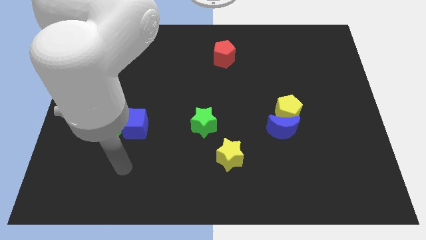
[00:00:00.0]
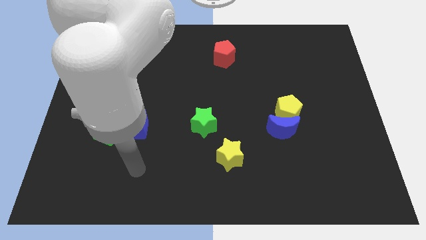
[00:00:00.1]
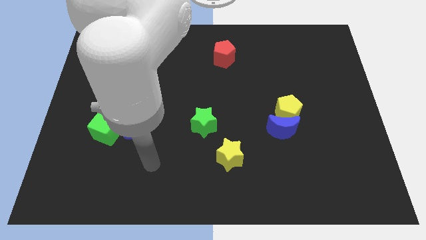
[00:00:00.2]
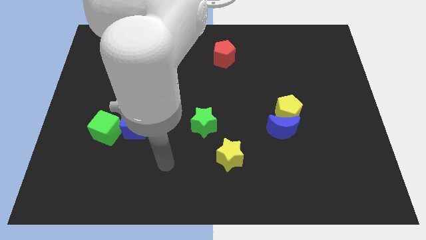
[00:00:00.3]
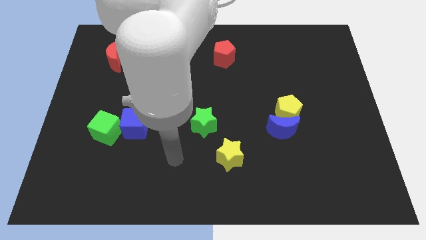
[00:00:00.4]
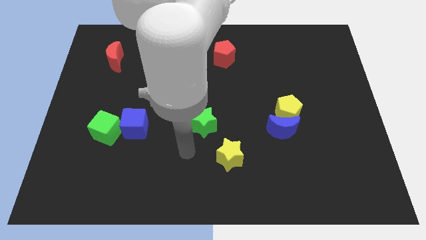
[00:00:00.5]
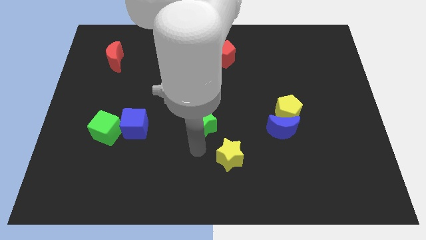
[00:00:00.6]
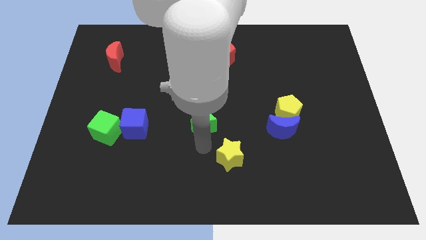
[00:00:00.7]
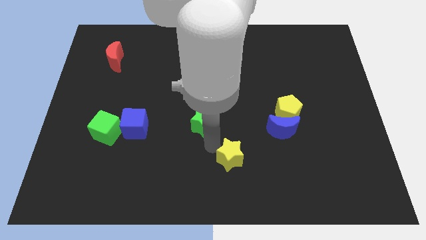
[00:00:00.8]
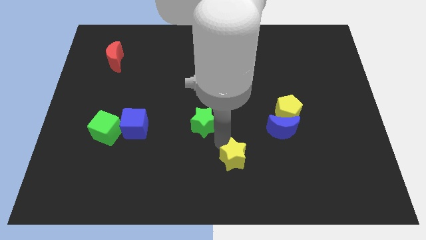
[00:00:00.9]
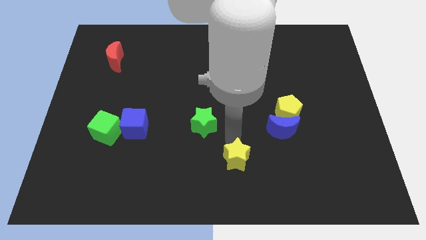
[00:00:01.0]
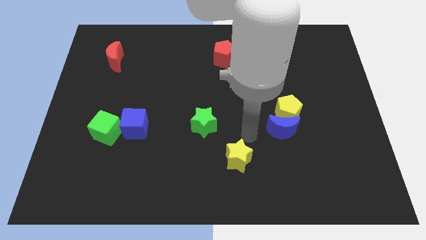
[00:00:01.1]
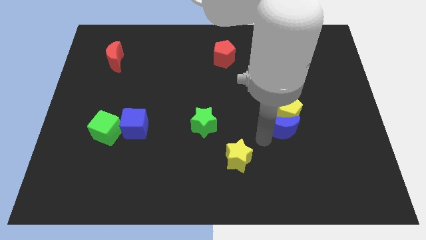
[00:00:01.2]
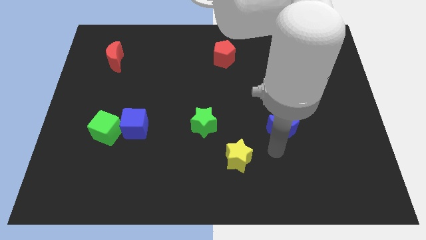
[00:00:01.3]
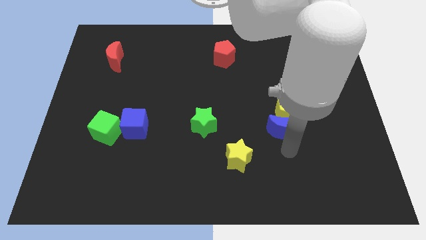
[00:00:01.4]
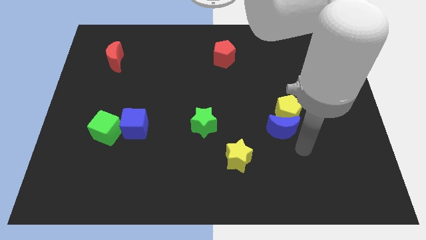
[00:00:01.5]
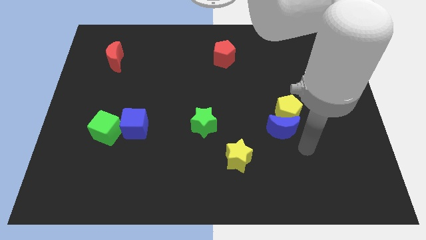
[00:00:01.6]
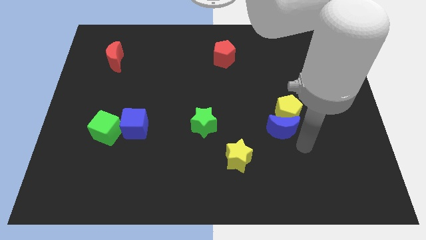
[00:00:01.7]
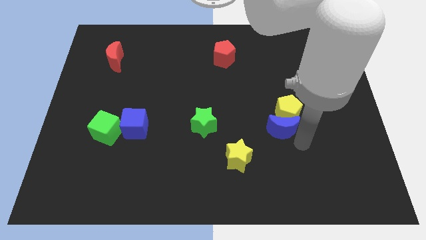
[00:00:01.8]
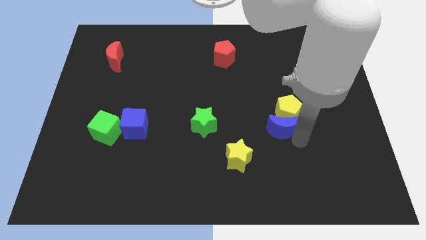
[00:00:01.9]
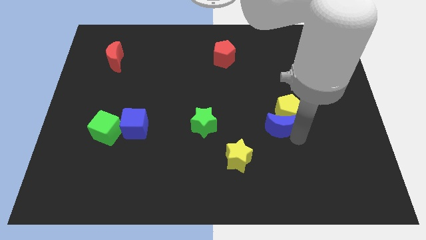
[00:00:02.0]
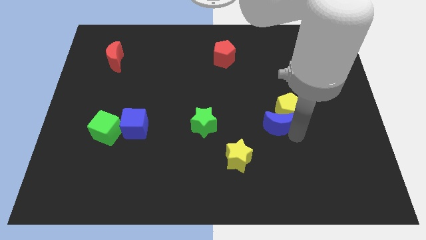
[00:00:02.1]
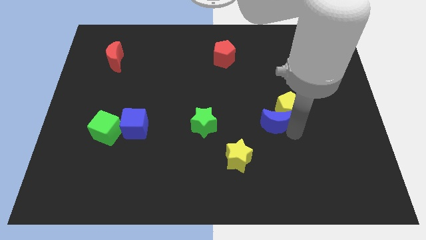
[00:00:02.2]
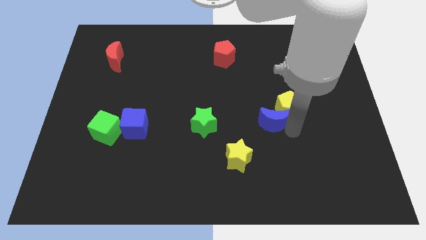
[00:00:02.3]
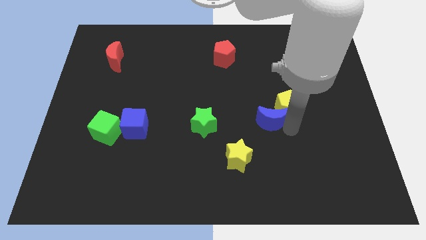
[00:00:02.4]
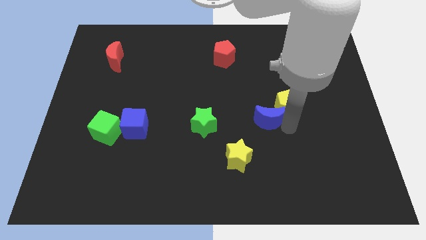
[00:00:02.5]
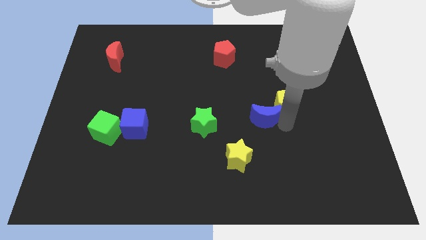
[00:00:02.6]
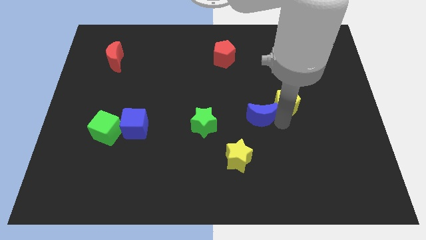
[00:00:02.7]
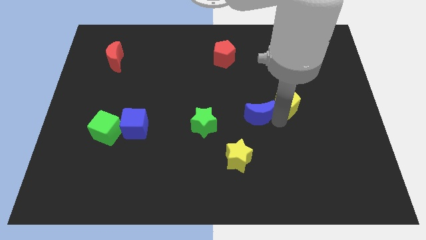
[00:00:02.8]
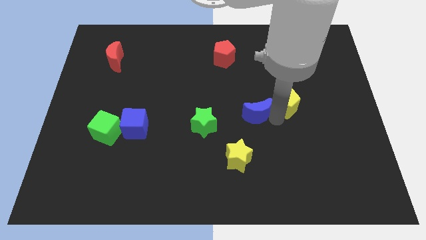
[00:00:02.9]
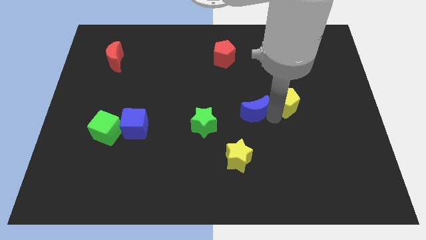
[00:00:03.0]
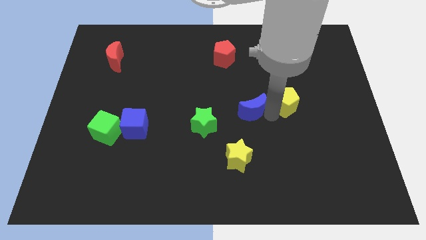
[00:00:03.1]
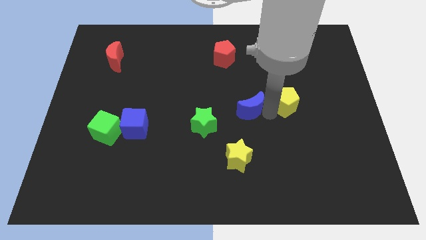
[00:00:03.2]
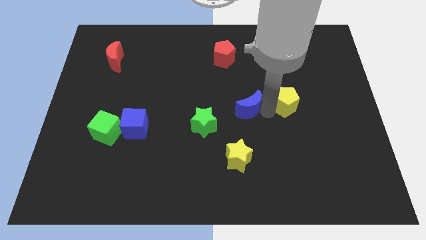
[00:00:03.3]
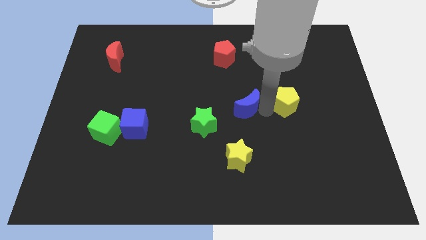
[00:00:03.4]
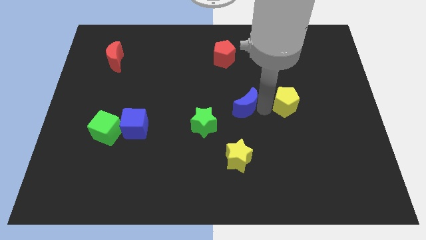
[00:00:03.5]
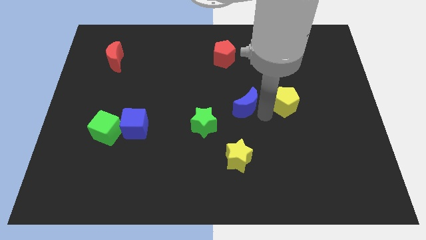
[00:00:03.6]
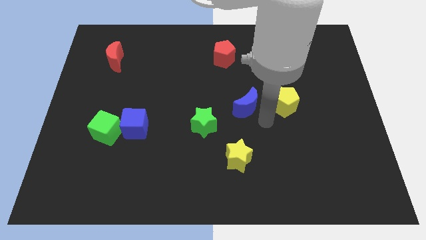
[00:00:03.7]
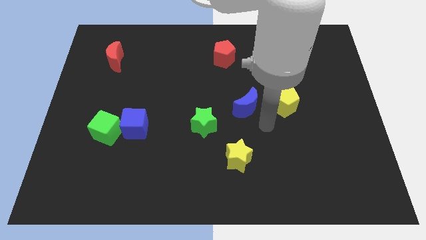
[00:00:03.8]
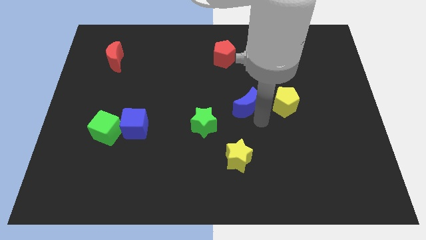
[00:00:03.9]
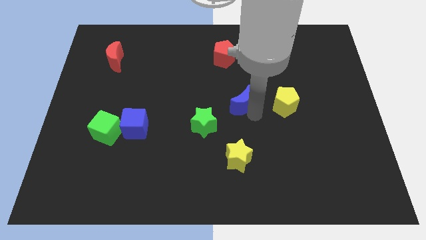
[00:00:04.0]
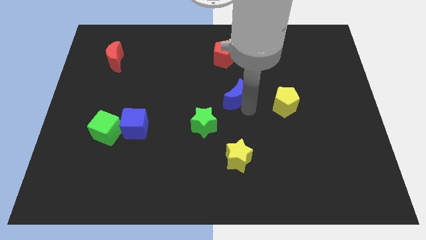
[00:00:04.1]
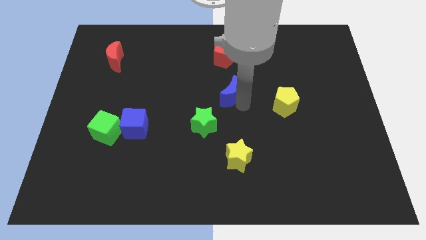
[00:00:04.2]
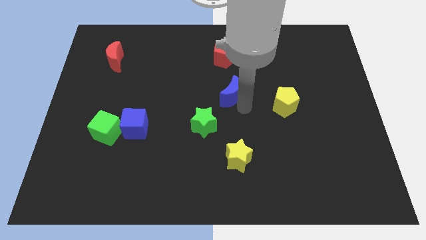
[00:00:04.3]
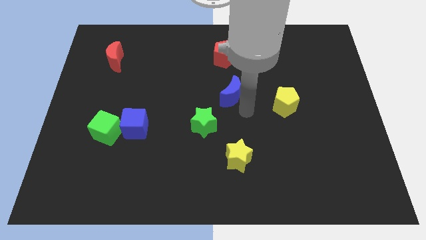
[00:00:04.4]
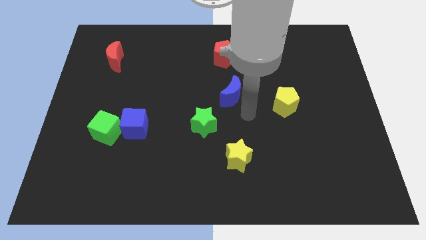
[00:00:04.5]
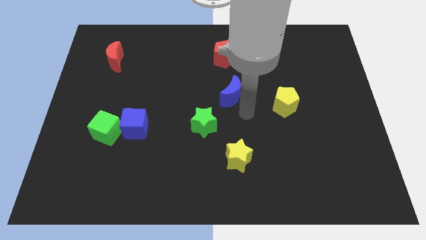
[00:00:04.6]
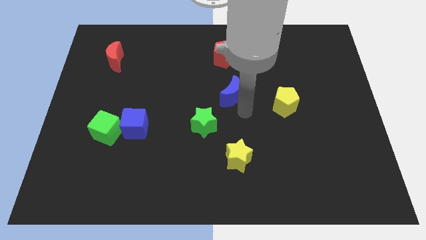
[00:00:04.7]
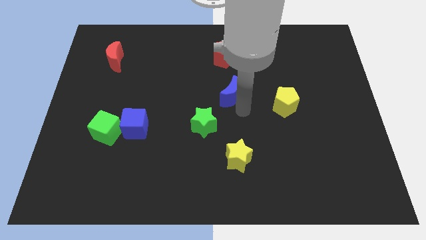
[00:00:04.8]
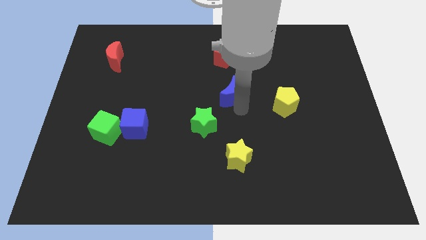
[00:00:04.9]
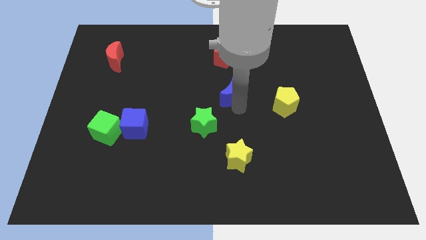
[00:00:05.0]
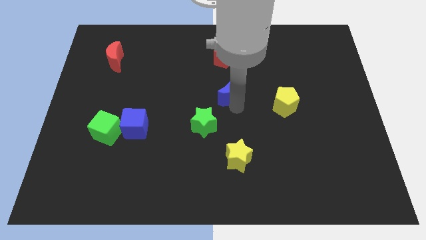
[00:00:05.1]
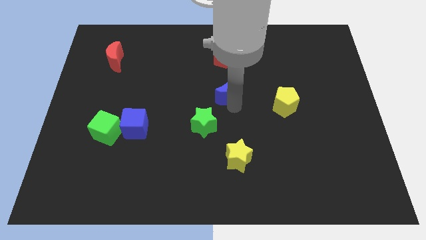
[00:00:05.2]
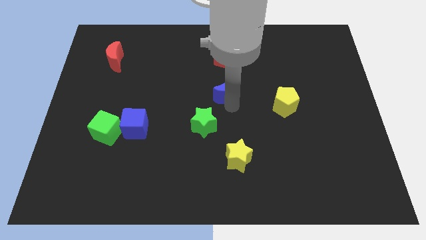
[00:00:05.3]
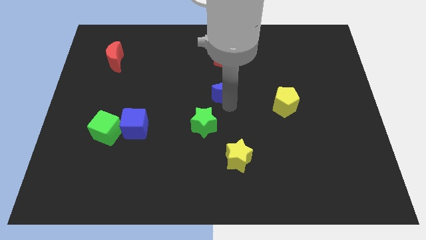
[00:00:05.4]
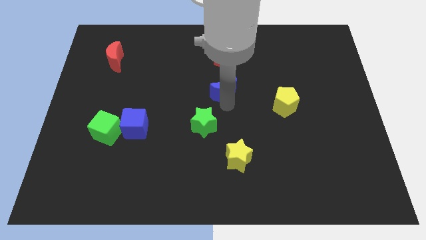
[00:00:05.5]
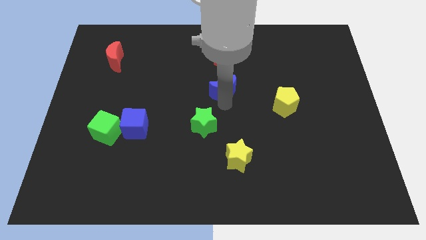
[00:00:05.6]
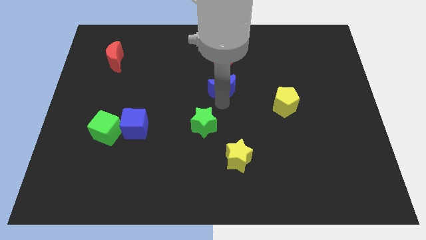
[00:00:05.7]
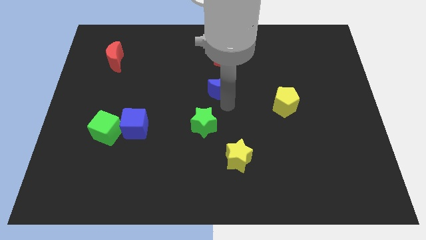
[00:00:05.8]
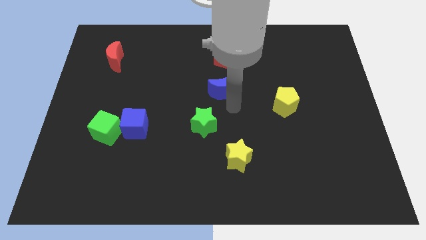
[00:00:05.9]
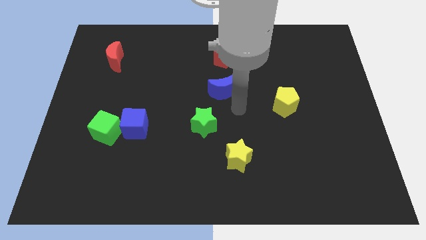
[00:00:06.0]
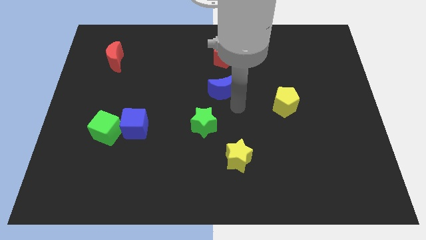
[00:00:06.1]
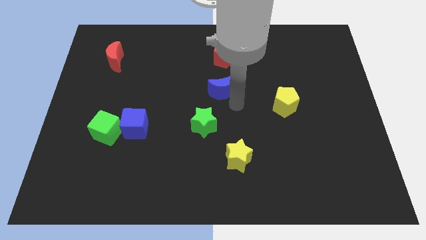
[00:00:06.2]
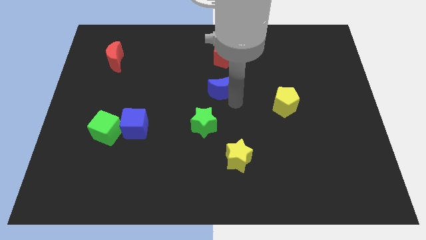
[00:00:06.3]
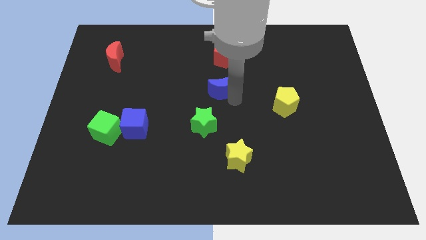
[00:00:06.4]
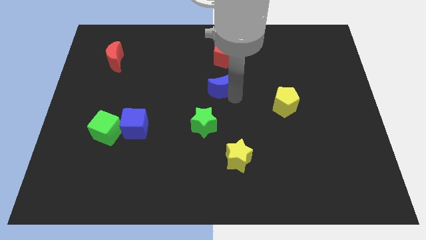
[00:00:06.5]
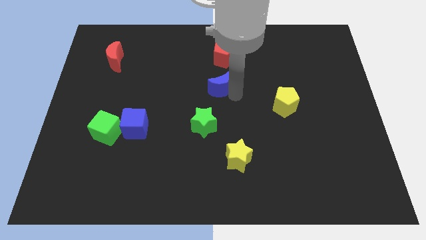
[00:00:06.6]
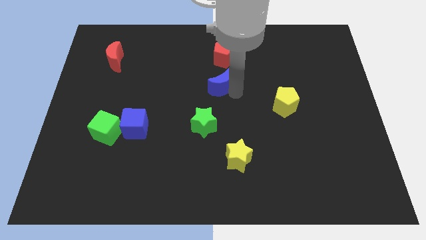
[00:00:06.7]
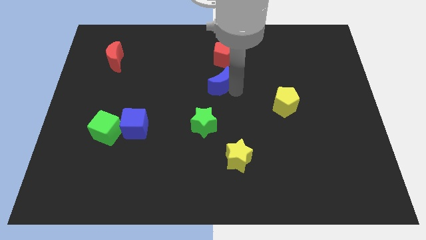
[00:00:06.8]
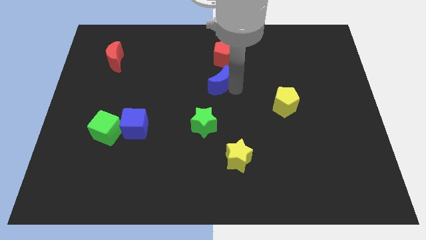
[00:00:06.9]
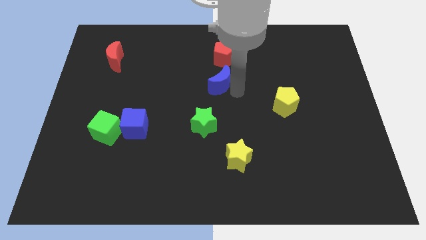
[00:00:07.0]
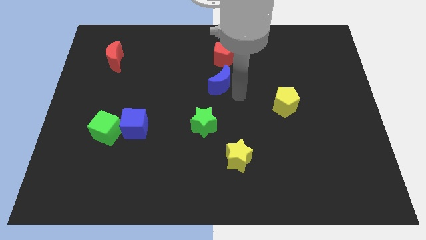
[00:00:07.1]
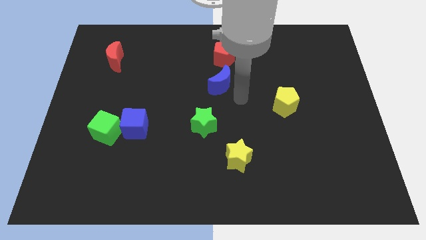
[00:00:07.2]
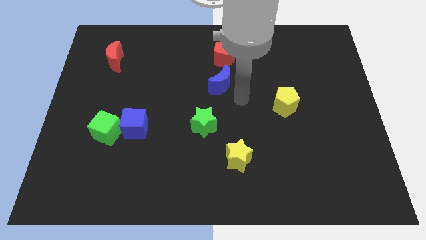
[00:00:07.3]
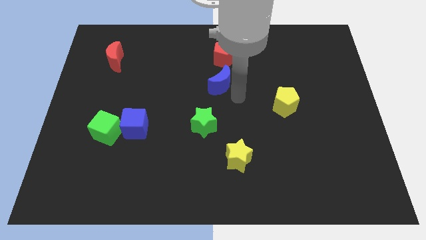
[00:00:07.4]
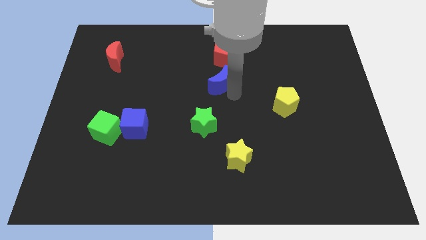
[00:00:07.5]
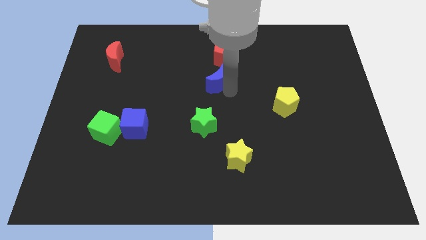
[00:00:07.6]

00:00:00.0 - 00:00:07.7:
move the blue moon up and then left

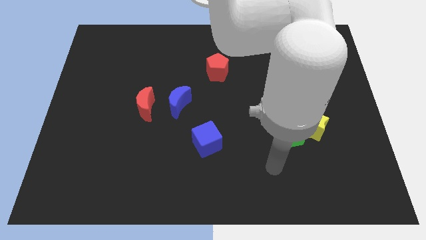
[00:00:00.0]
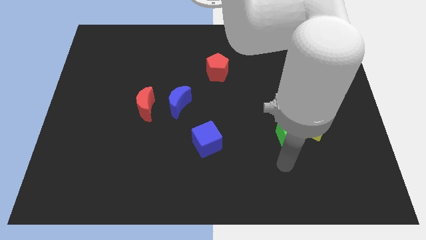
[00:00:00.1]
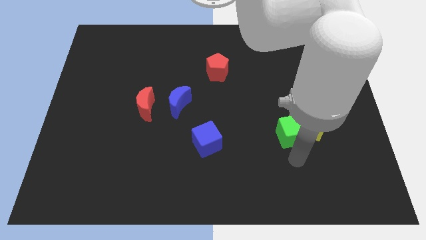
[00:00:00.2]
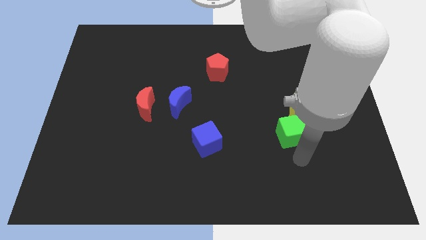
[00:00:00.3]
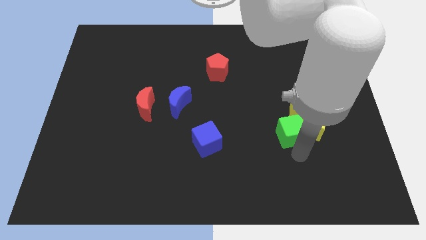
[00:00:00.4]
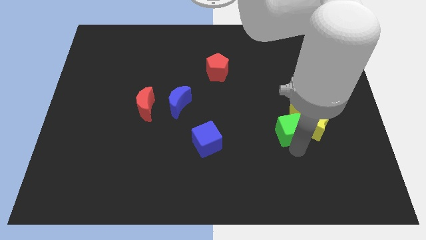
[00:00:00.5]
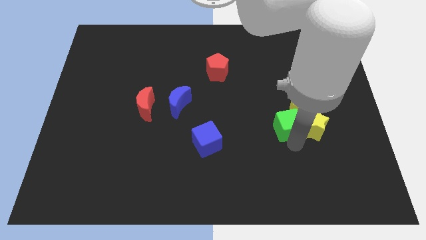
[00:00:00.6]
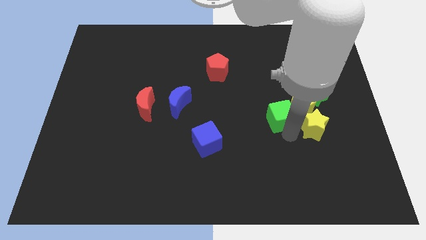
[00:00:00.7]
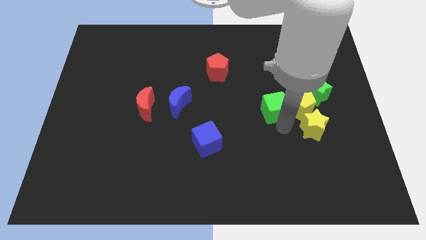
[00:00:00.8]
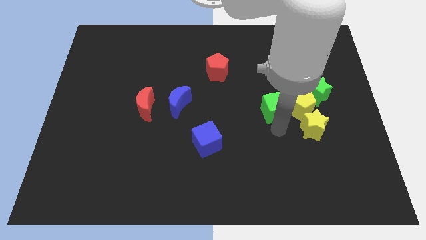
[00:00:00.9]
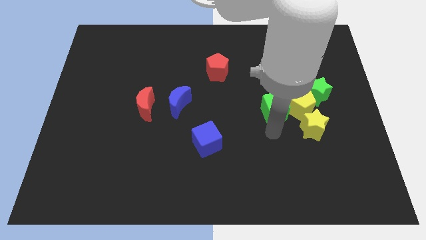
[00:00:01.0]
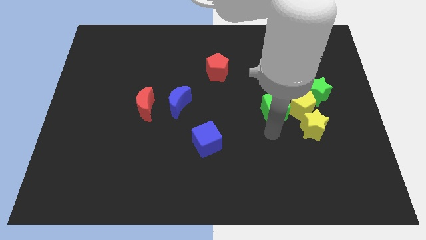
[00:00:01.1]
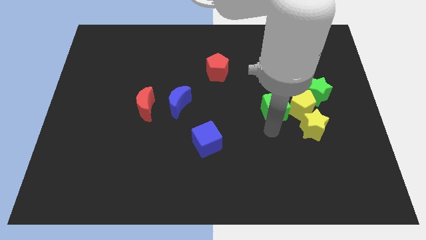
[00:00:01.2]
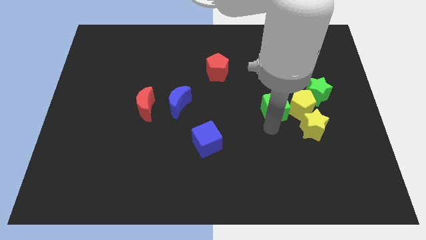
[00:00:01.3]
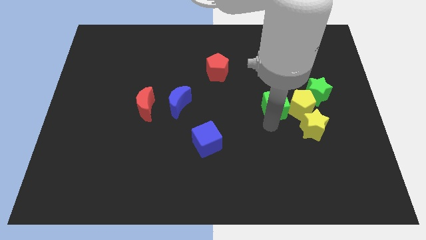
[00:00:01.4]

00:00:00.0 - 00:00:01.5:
slide the green cube upwards a little bit
